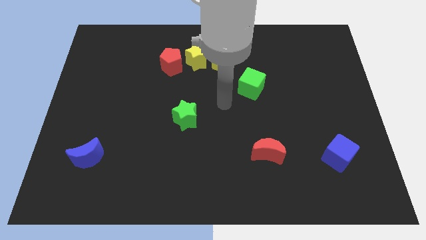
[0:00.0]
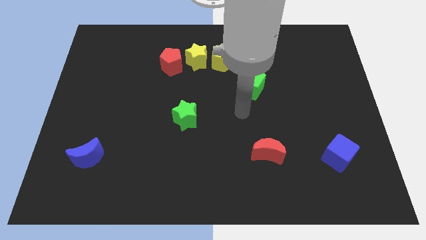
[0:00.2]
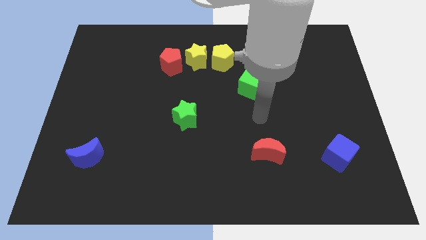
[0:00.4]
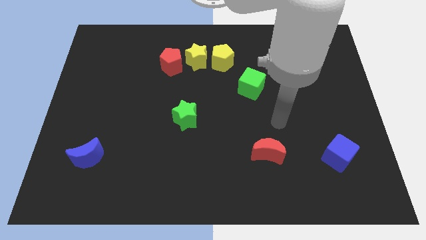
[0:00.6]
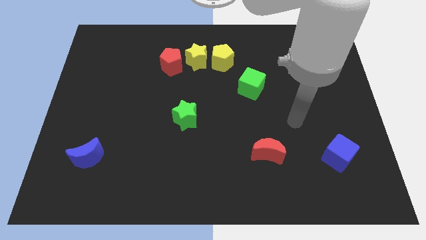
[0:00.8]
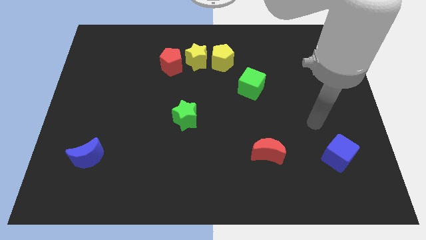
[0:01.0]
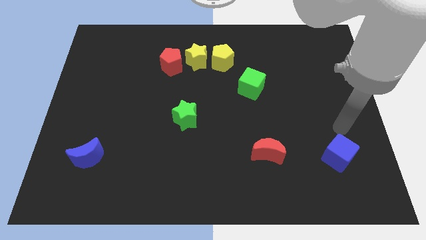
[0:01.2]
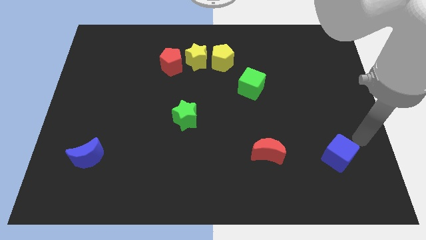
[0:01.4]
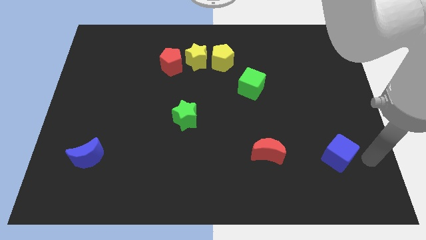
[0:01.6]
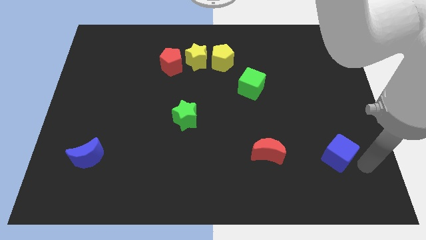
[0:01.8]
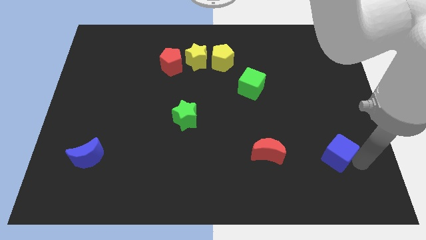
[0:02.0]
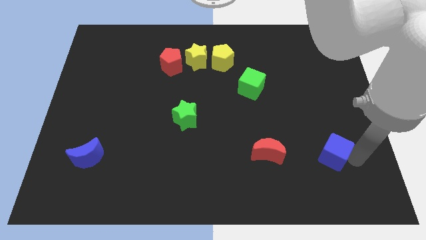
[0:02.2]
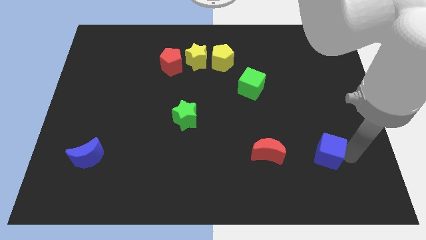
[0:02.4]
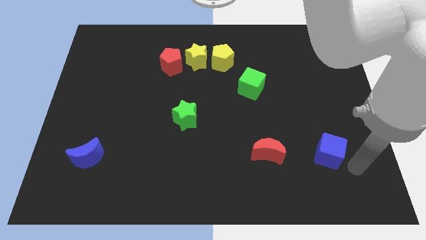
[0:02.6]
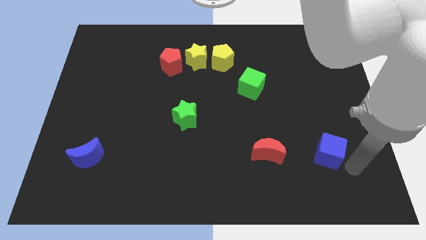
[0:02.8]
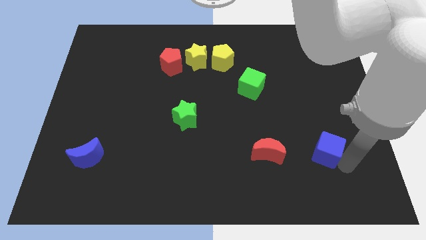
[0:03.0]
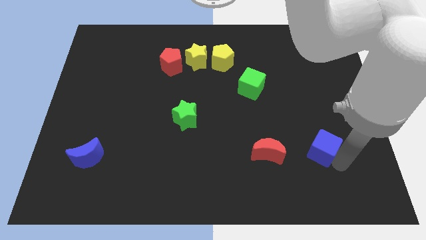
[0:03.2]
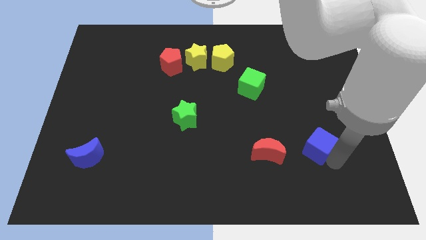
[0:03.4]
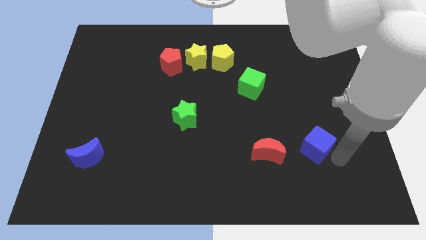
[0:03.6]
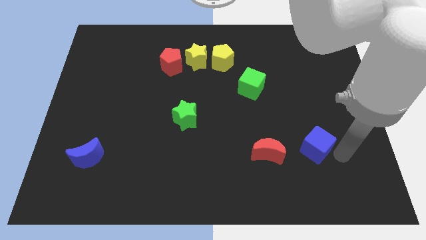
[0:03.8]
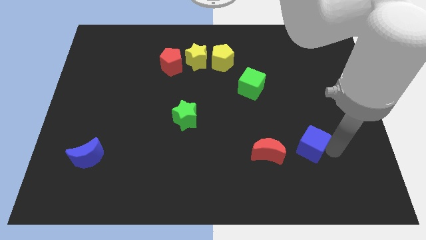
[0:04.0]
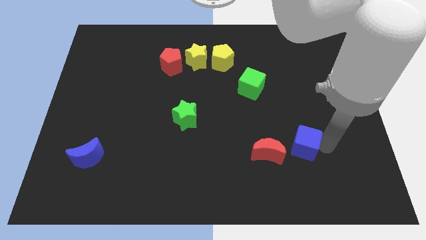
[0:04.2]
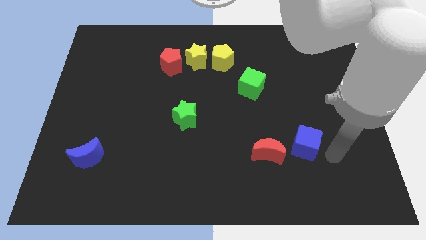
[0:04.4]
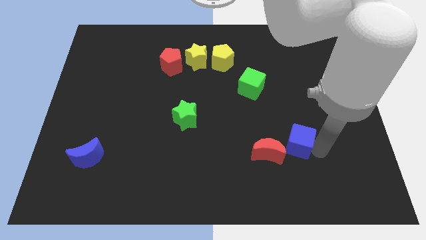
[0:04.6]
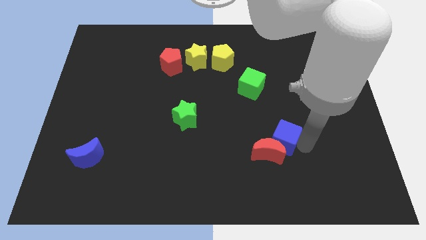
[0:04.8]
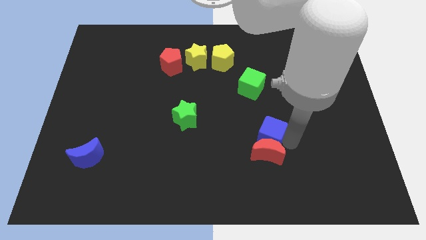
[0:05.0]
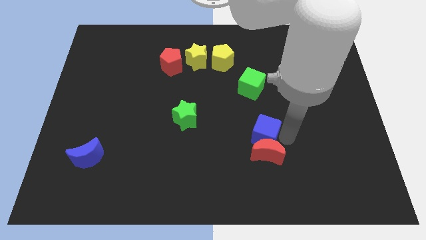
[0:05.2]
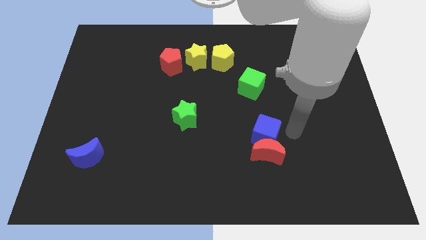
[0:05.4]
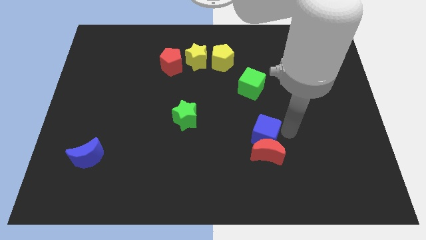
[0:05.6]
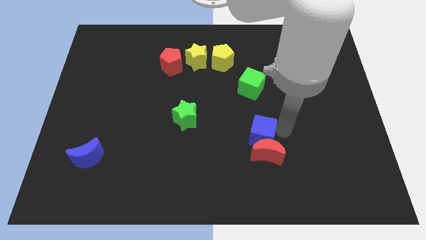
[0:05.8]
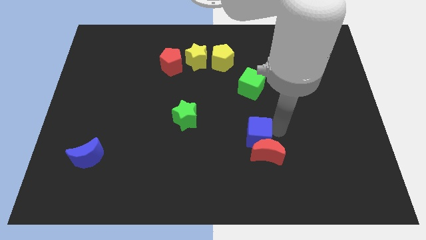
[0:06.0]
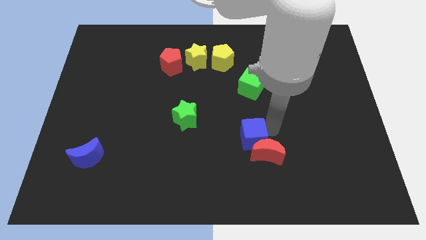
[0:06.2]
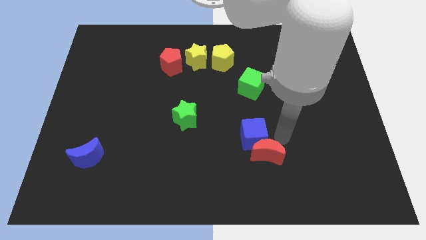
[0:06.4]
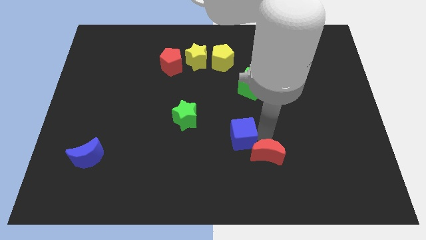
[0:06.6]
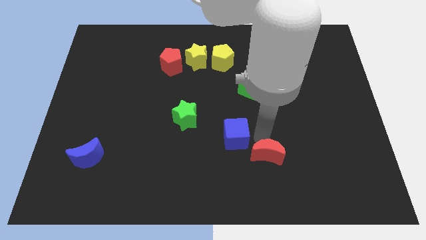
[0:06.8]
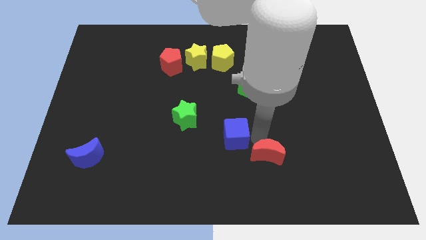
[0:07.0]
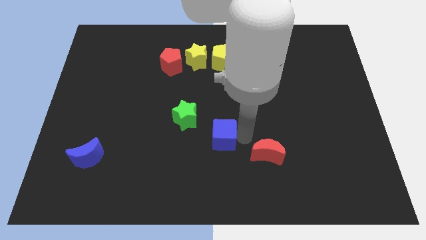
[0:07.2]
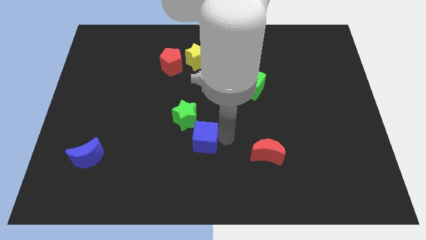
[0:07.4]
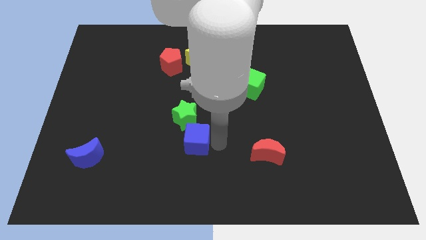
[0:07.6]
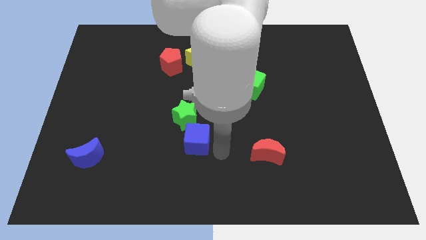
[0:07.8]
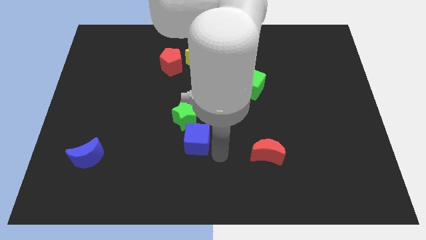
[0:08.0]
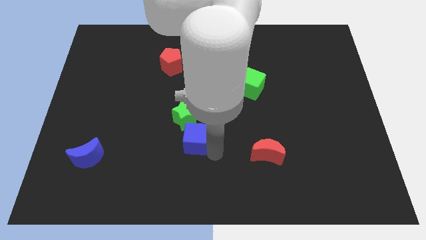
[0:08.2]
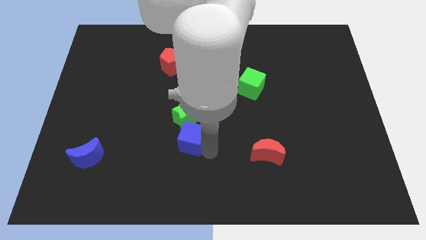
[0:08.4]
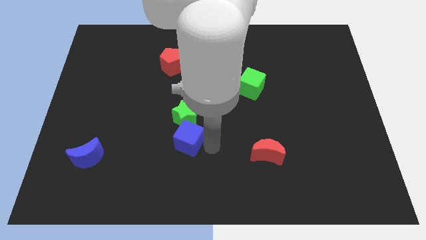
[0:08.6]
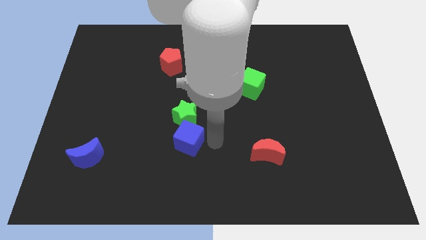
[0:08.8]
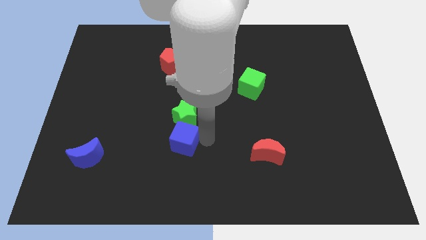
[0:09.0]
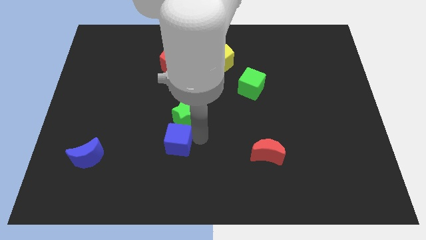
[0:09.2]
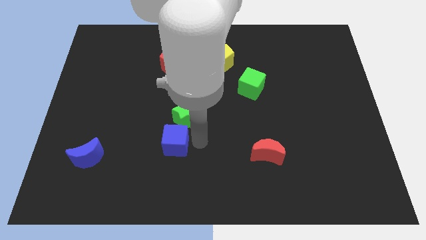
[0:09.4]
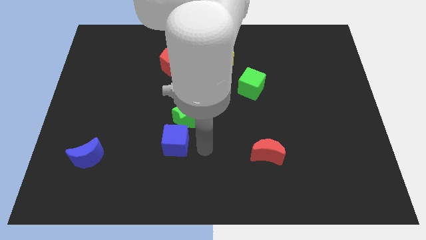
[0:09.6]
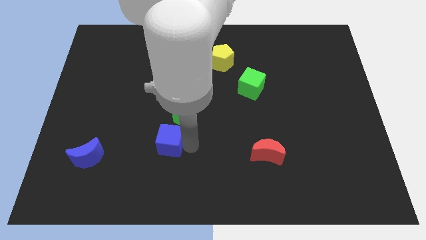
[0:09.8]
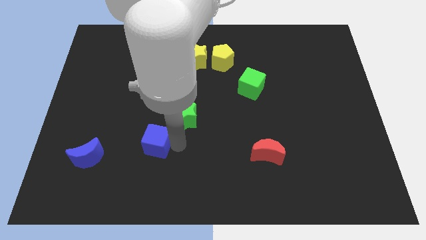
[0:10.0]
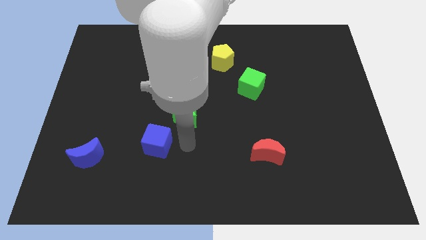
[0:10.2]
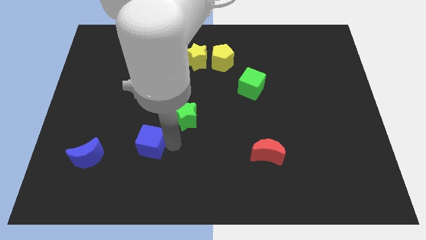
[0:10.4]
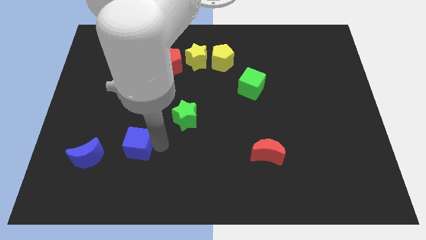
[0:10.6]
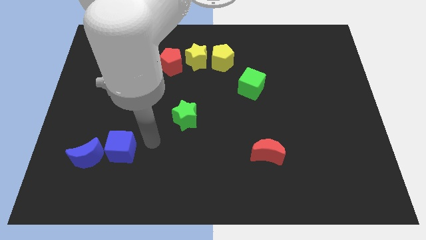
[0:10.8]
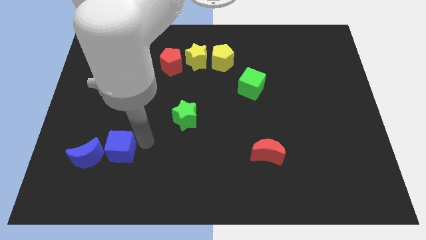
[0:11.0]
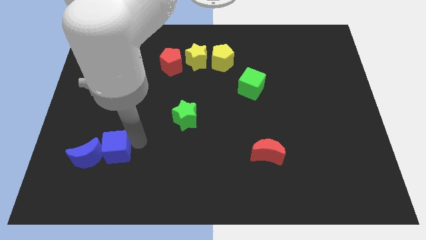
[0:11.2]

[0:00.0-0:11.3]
slide the blue cube to the blue moon
